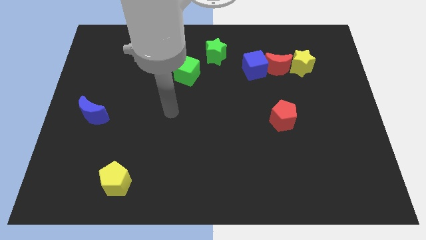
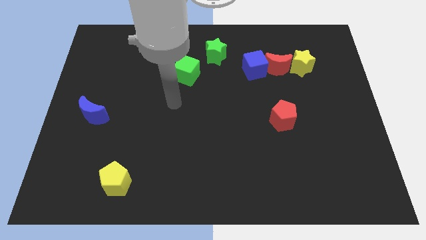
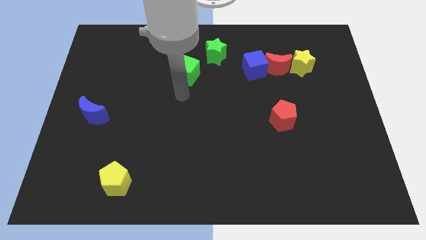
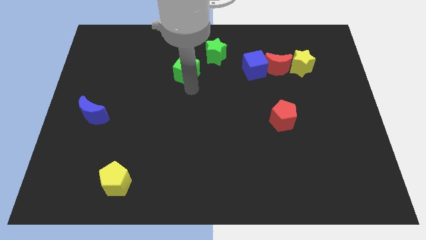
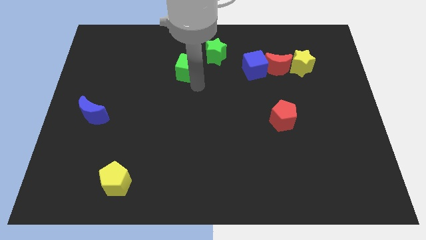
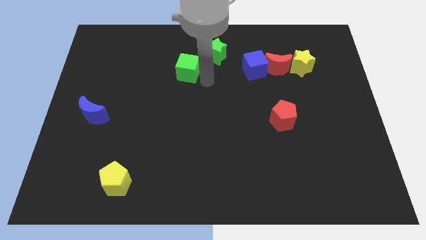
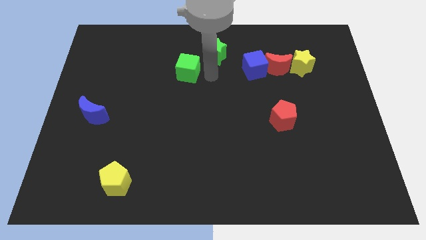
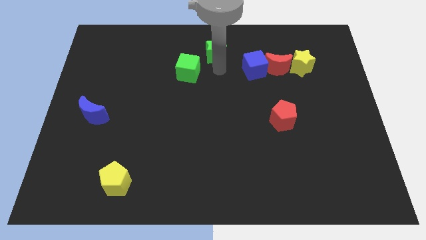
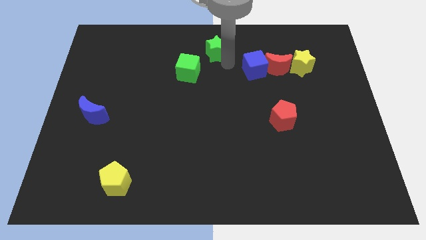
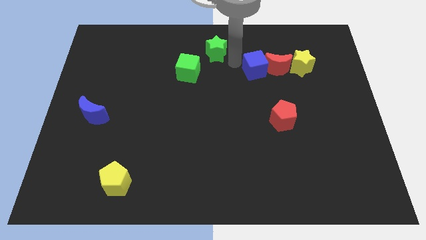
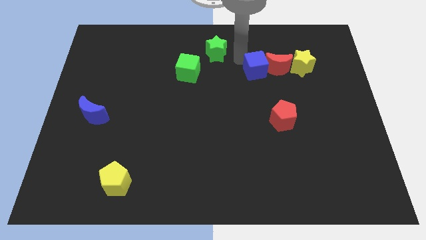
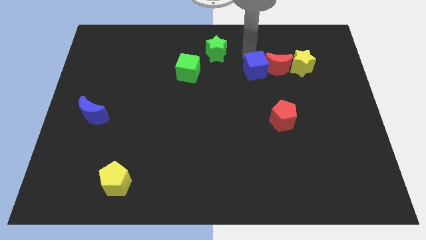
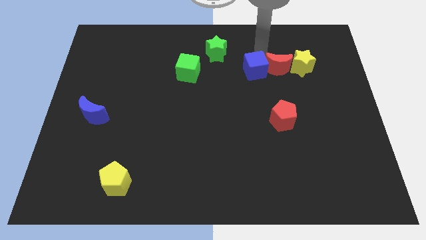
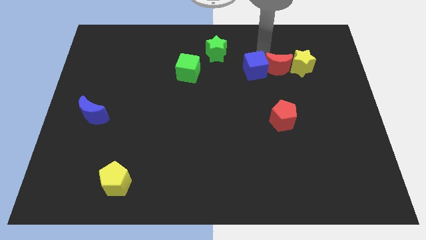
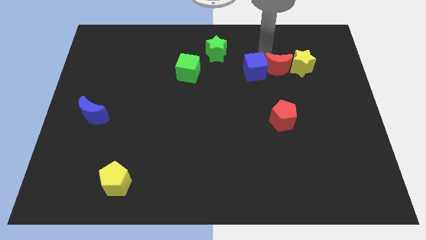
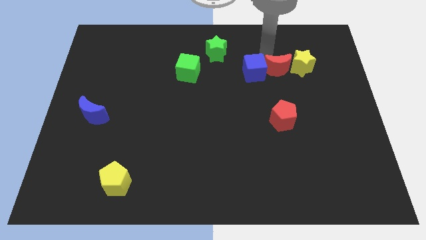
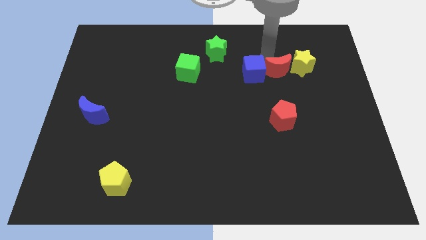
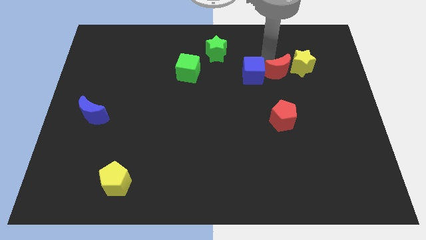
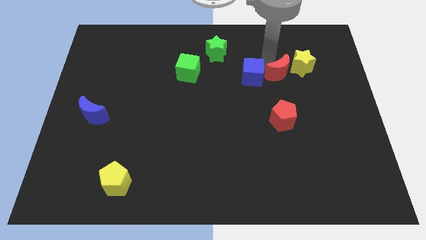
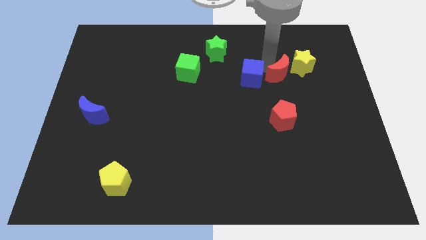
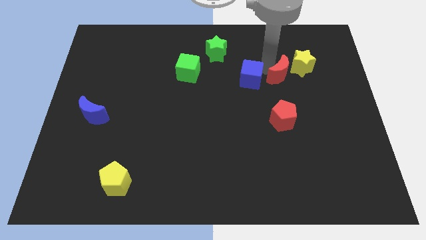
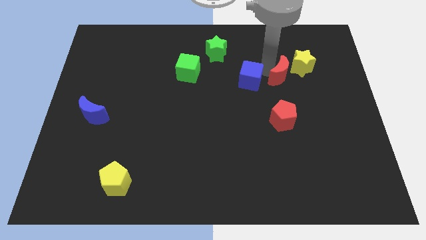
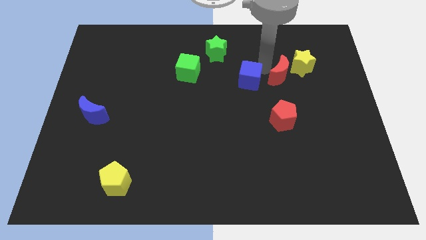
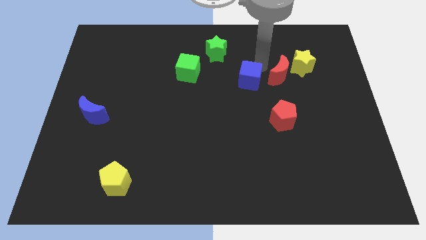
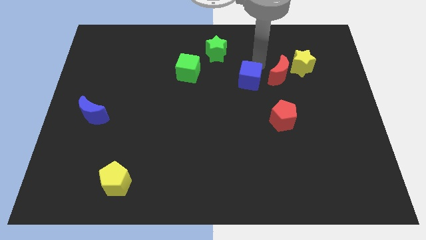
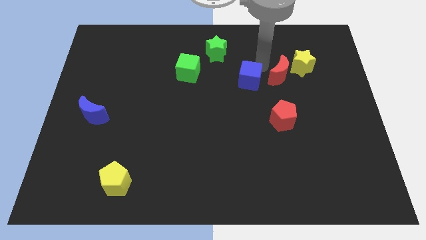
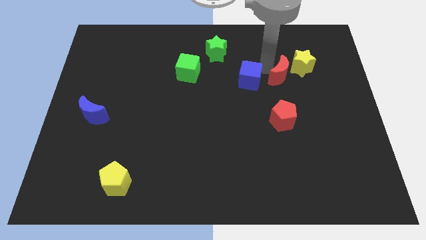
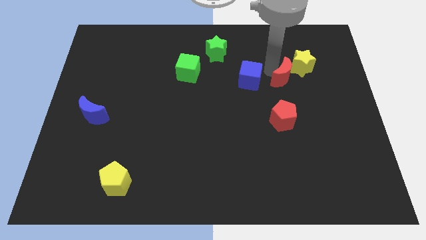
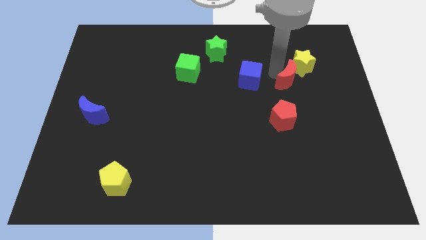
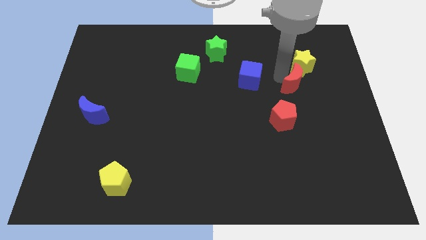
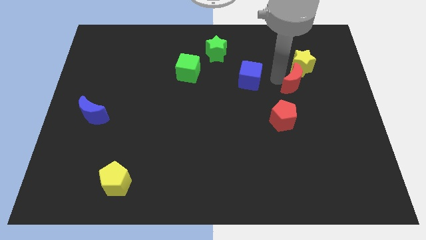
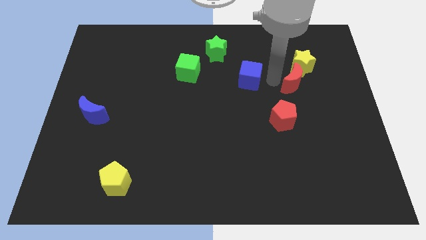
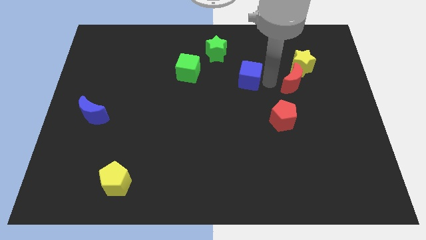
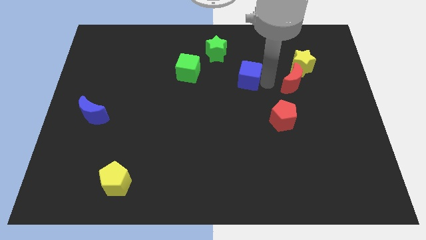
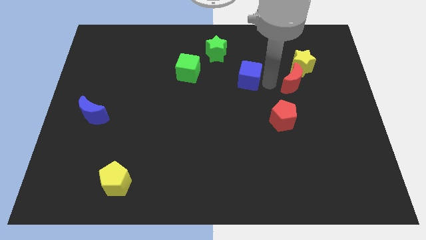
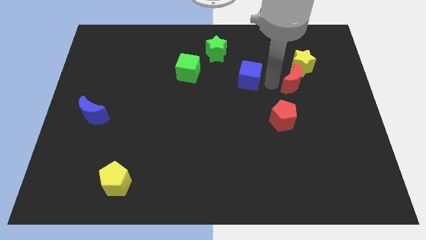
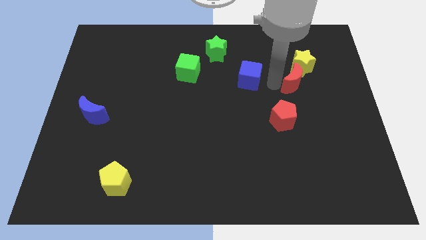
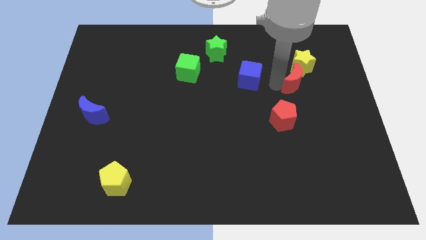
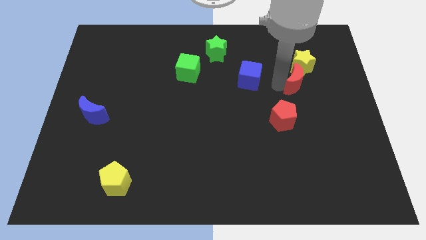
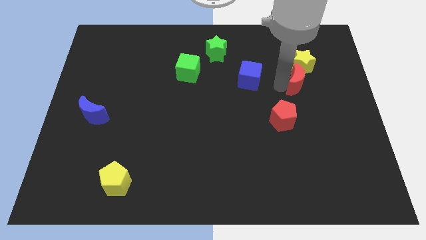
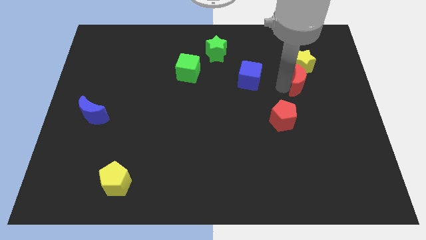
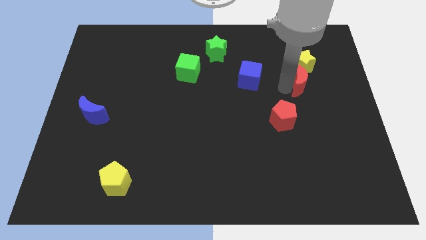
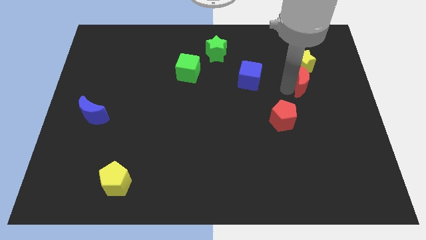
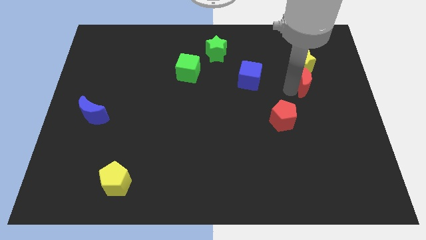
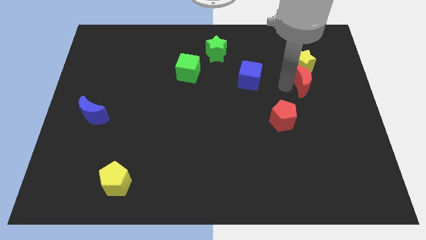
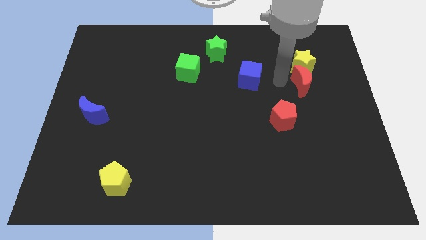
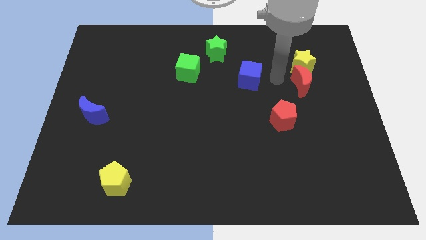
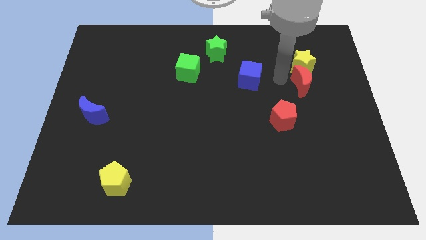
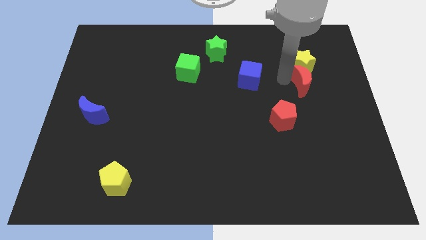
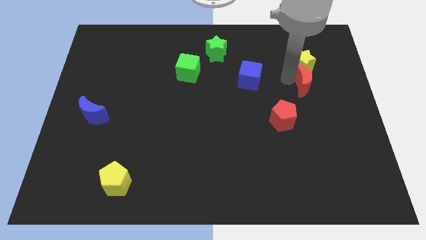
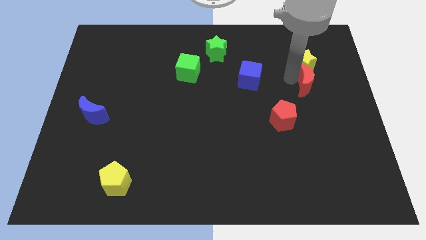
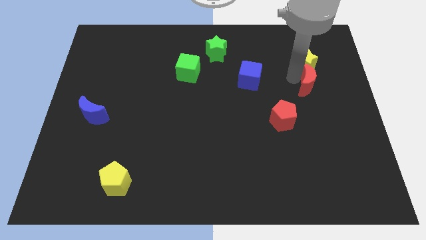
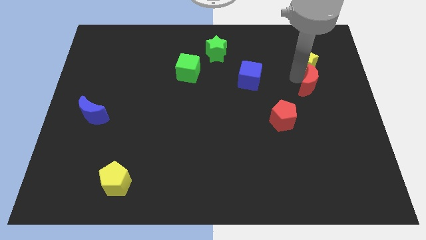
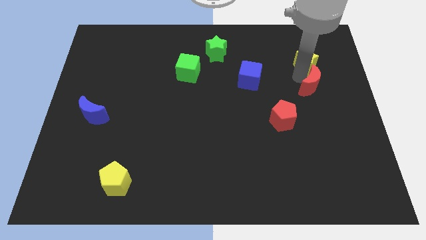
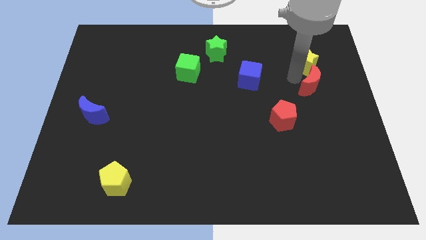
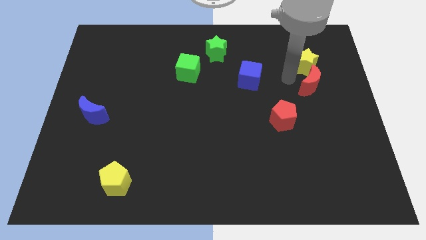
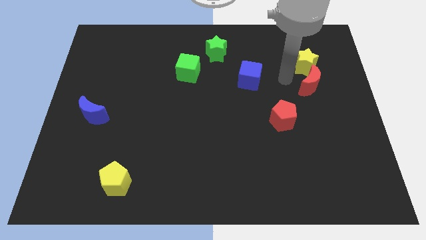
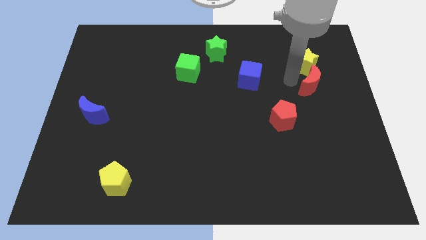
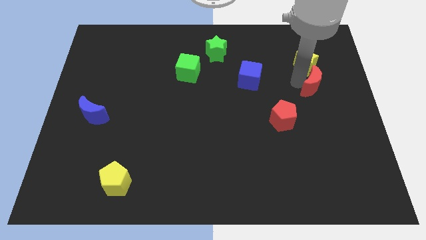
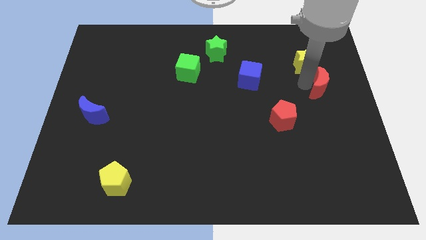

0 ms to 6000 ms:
slide the red moon to the right side
